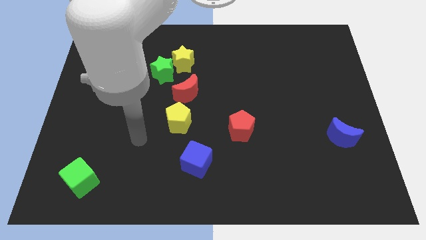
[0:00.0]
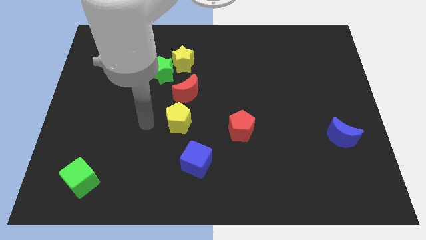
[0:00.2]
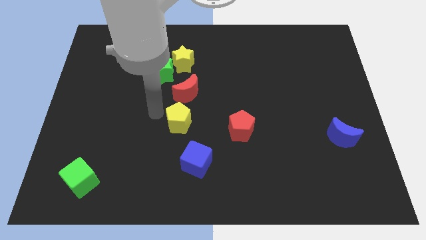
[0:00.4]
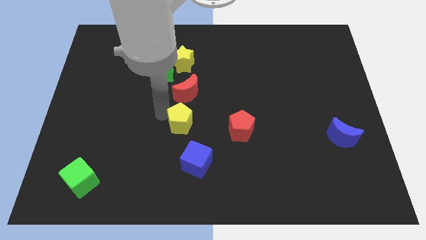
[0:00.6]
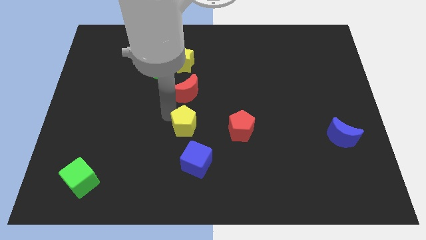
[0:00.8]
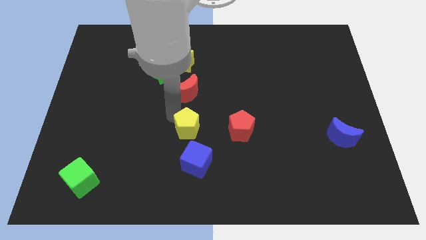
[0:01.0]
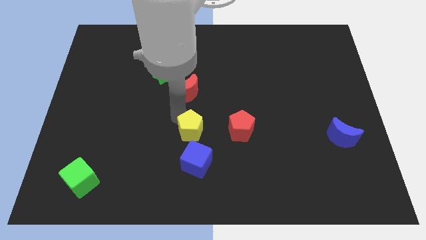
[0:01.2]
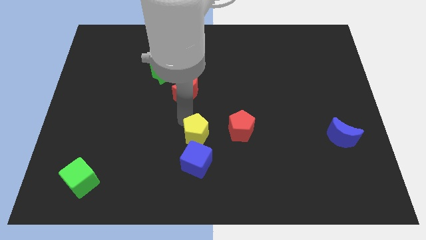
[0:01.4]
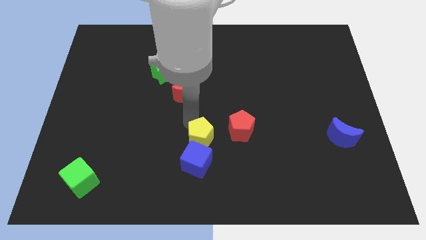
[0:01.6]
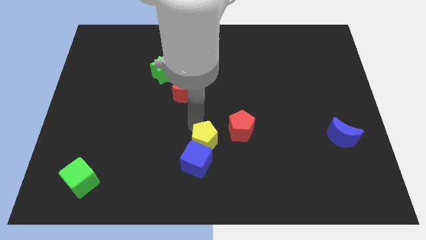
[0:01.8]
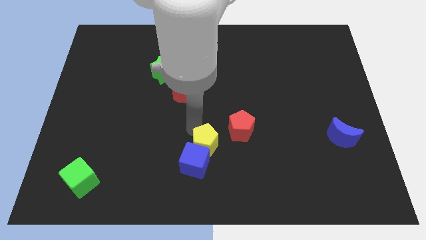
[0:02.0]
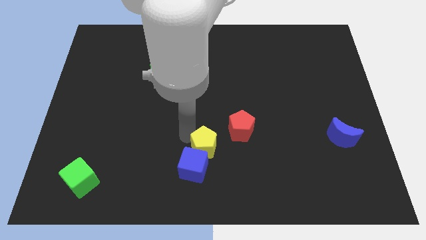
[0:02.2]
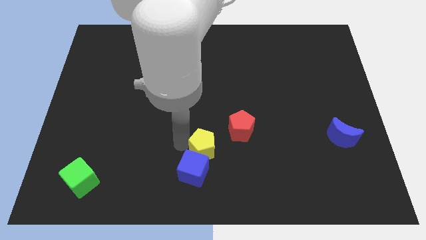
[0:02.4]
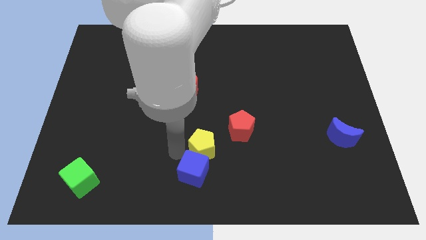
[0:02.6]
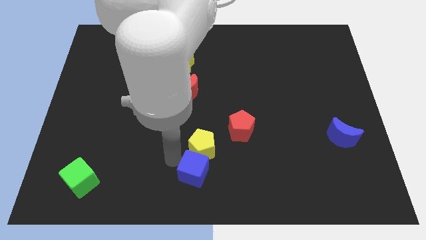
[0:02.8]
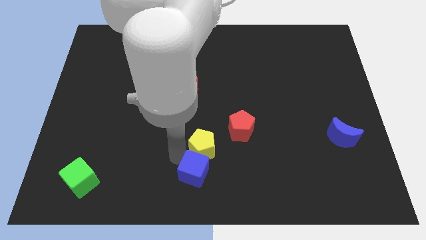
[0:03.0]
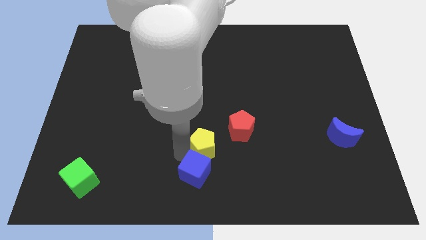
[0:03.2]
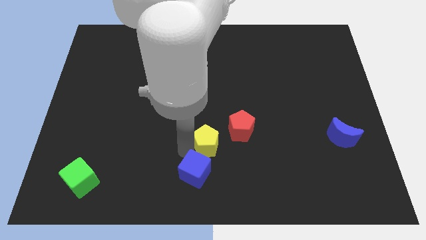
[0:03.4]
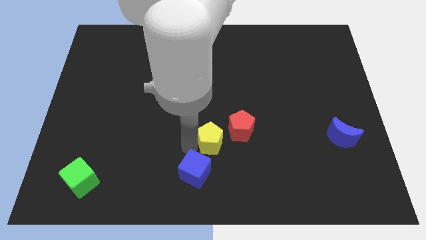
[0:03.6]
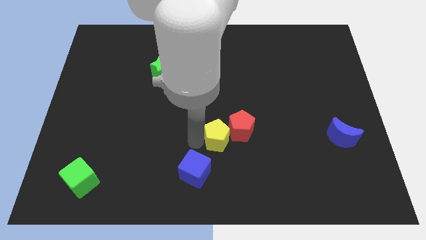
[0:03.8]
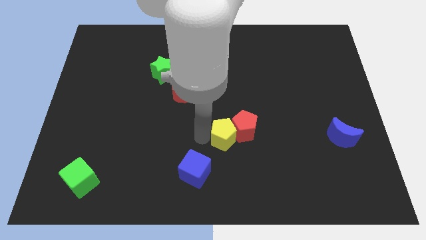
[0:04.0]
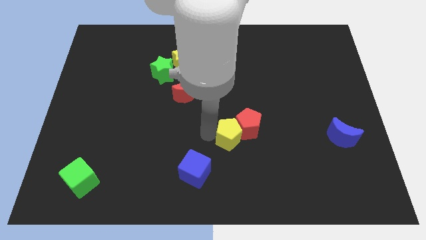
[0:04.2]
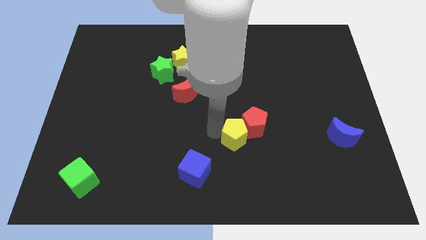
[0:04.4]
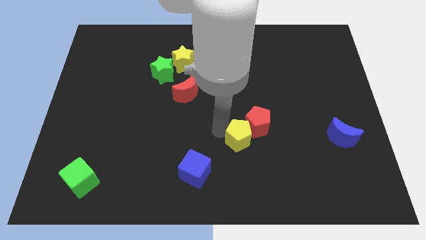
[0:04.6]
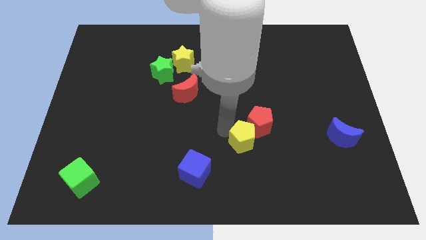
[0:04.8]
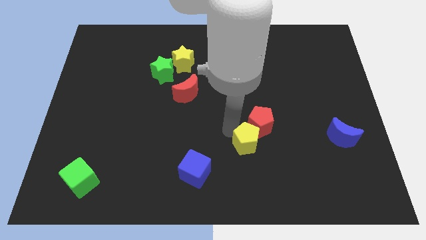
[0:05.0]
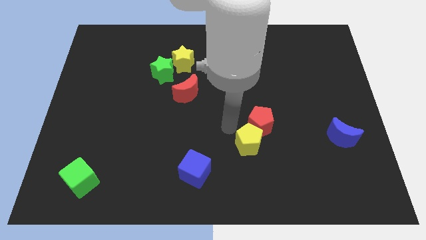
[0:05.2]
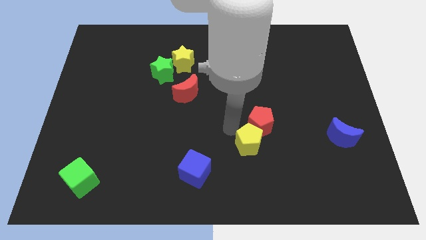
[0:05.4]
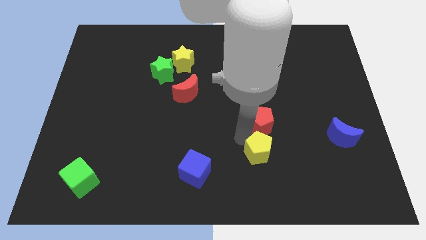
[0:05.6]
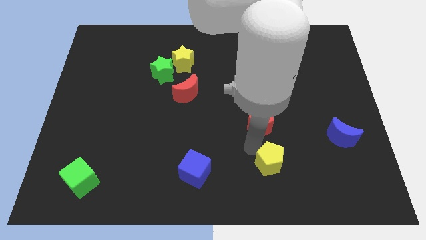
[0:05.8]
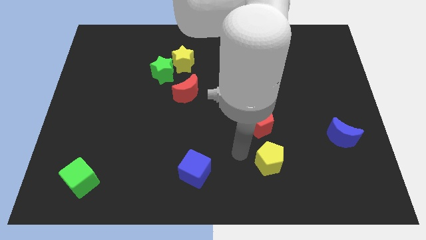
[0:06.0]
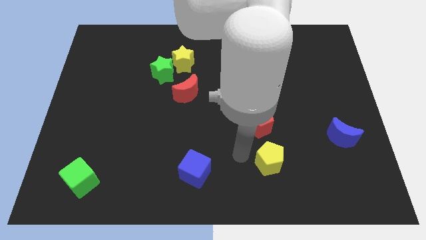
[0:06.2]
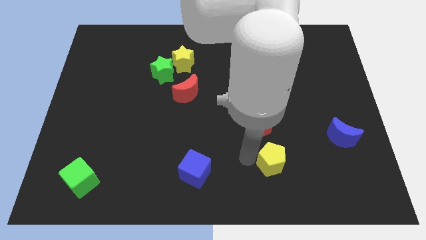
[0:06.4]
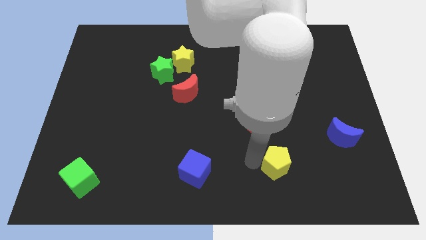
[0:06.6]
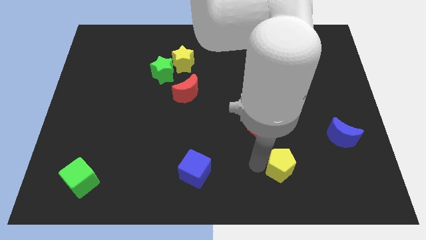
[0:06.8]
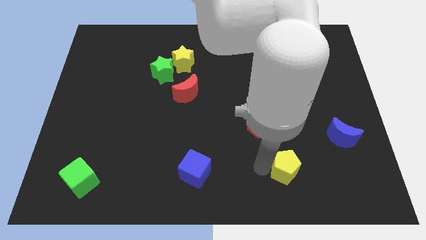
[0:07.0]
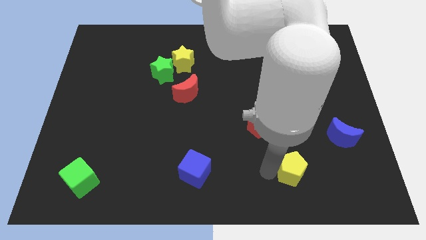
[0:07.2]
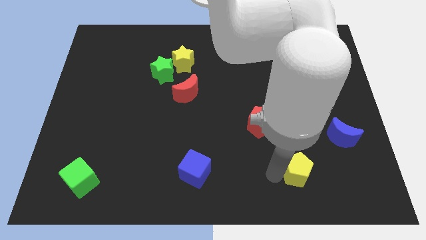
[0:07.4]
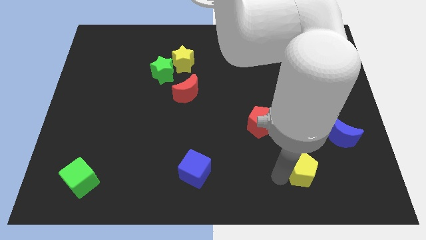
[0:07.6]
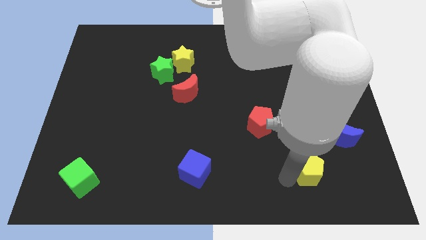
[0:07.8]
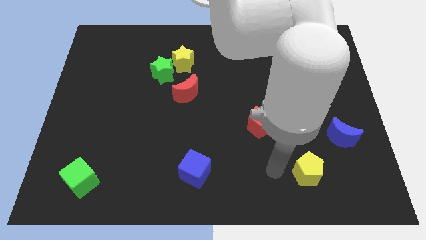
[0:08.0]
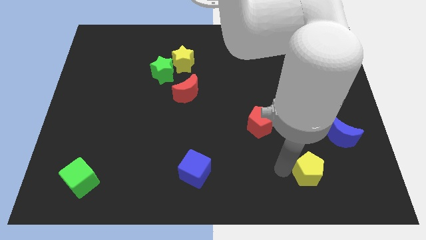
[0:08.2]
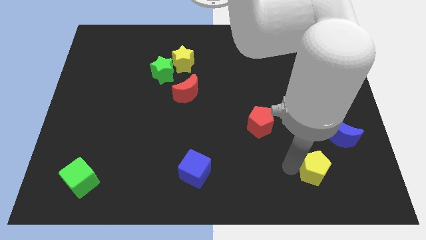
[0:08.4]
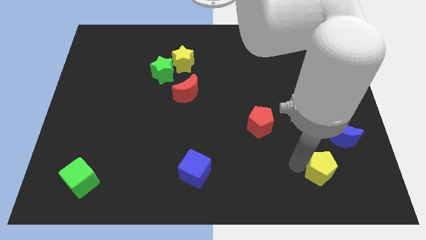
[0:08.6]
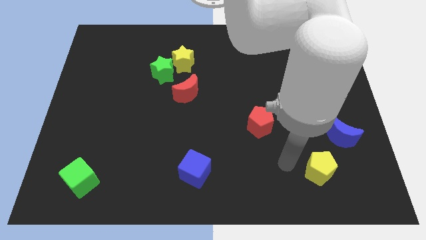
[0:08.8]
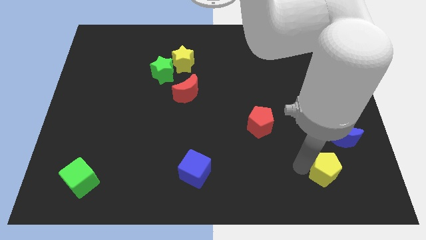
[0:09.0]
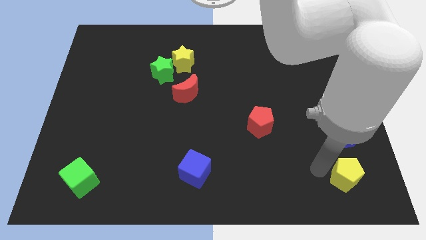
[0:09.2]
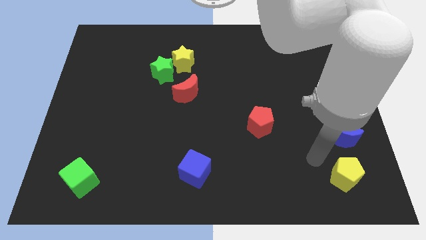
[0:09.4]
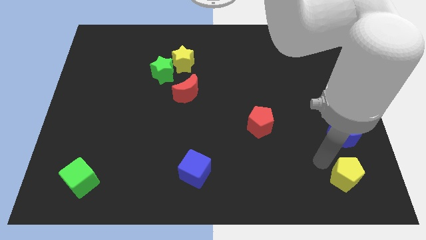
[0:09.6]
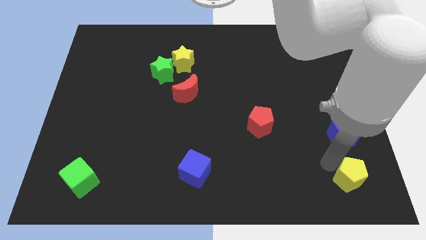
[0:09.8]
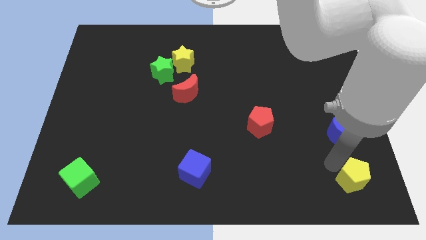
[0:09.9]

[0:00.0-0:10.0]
put the yellow pentagon to the bottom right

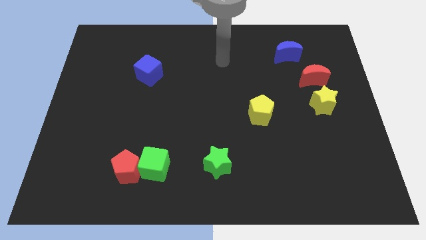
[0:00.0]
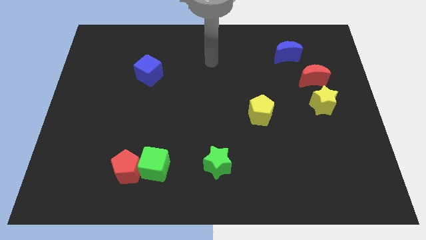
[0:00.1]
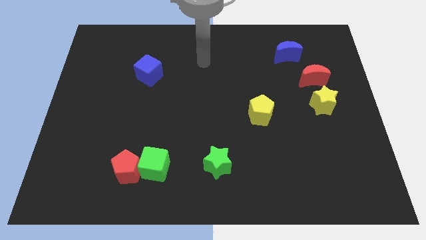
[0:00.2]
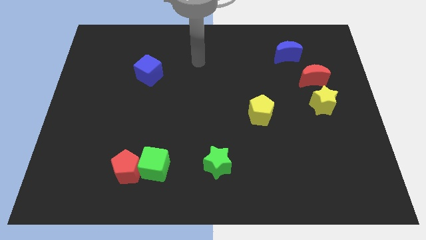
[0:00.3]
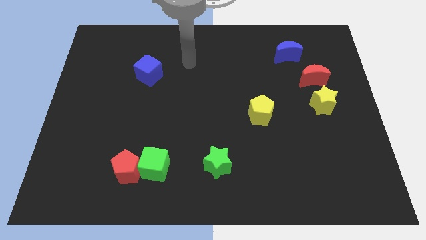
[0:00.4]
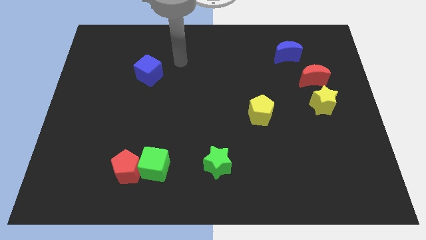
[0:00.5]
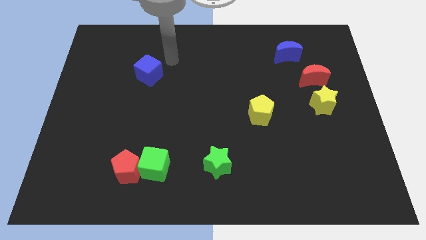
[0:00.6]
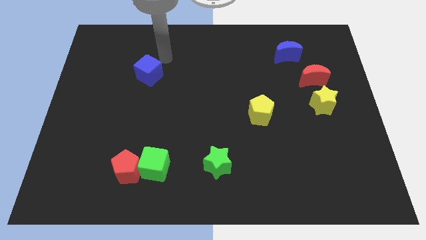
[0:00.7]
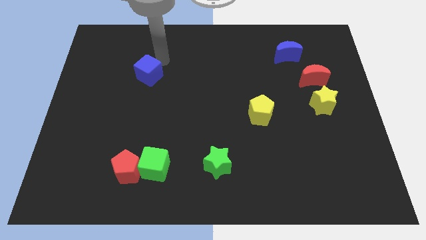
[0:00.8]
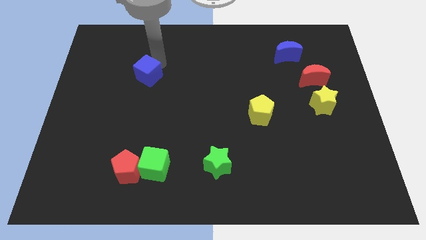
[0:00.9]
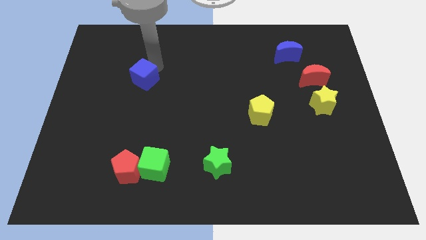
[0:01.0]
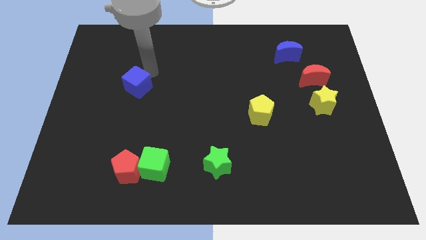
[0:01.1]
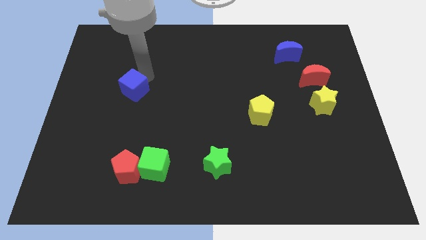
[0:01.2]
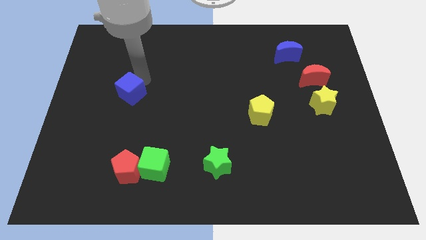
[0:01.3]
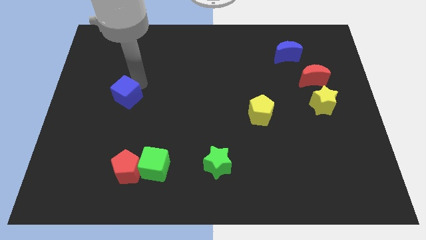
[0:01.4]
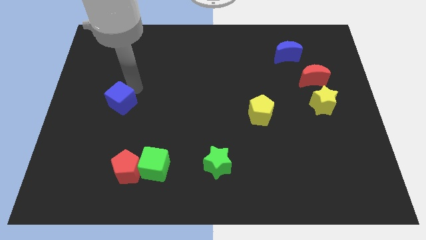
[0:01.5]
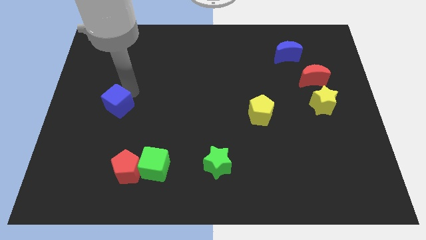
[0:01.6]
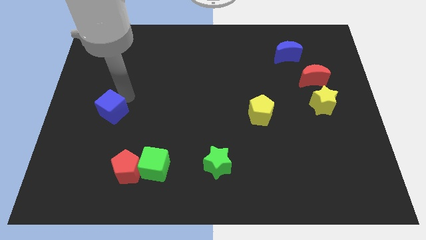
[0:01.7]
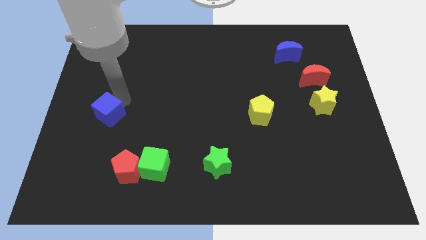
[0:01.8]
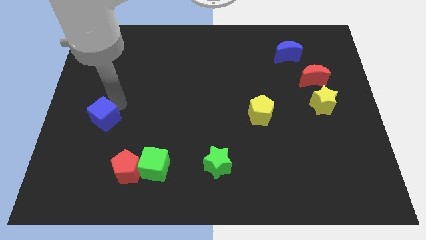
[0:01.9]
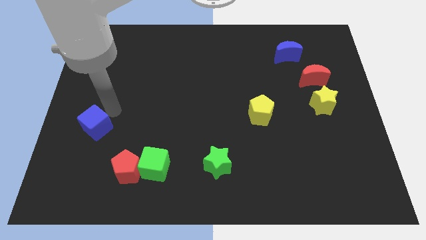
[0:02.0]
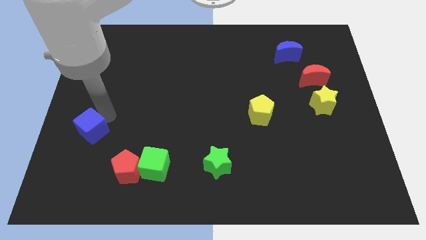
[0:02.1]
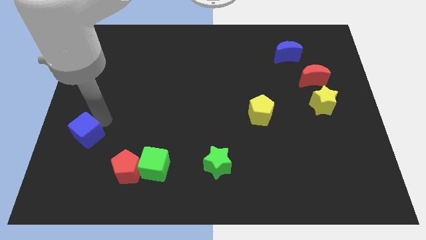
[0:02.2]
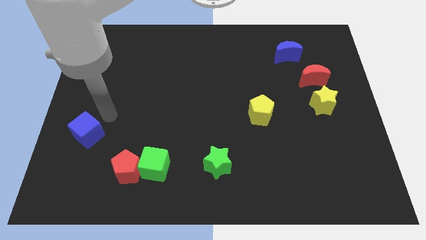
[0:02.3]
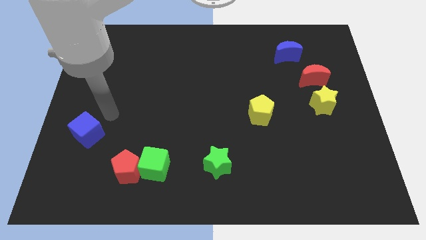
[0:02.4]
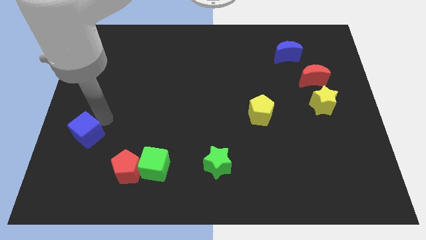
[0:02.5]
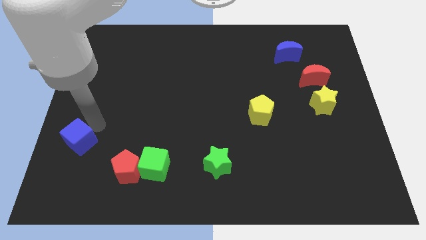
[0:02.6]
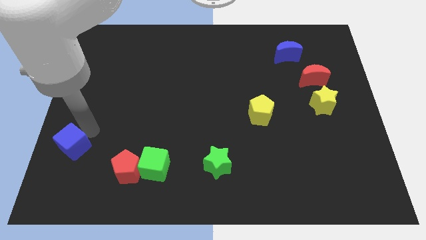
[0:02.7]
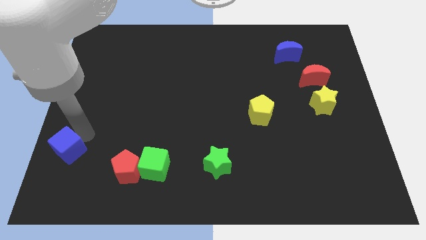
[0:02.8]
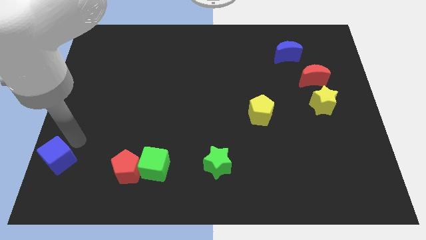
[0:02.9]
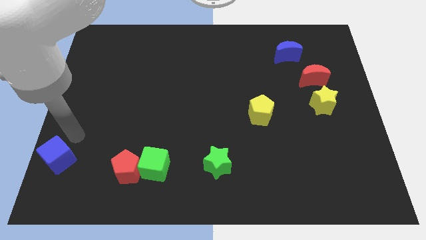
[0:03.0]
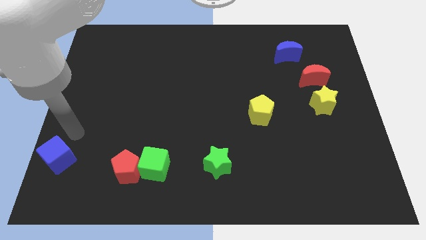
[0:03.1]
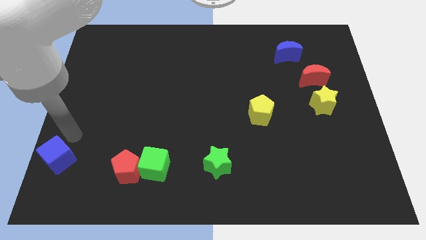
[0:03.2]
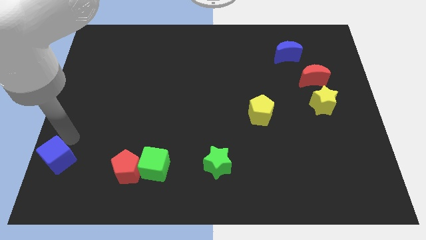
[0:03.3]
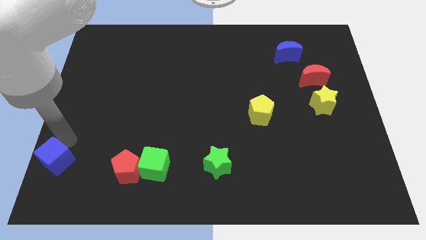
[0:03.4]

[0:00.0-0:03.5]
slide the blue cube to the bottom left of the board
